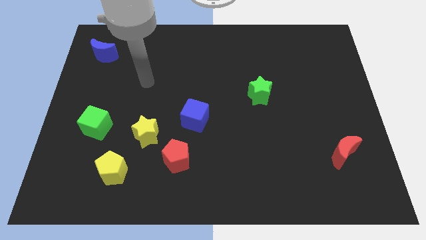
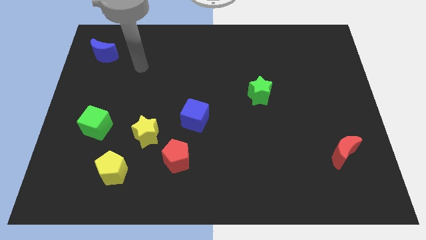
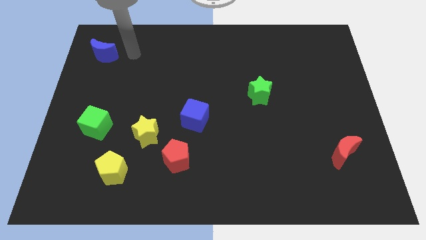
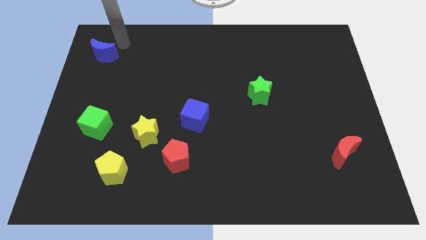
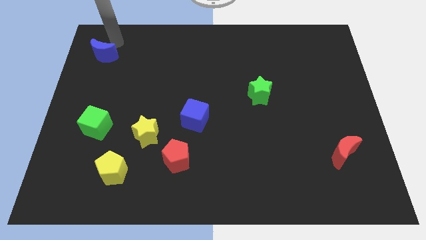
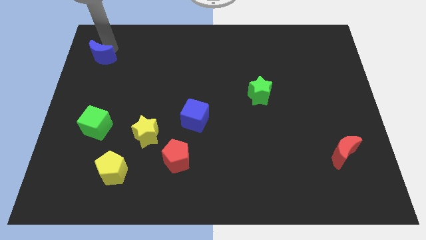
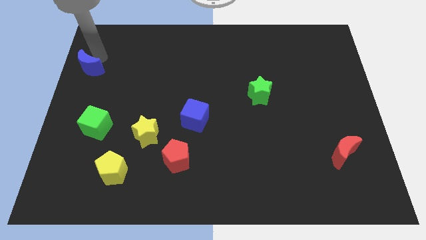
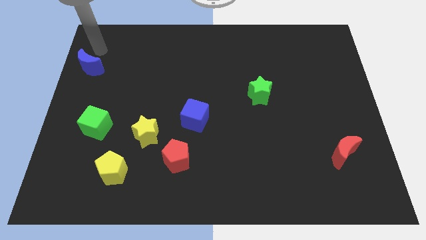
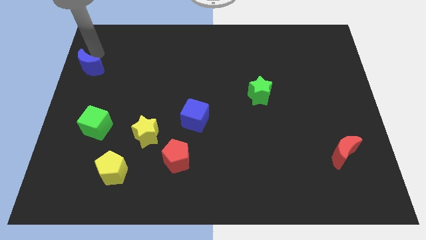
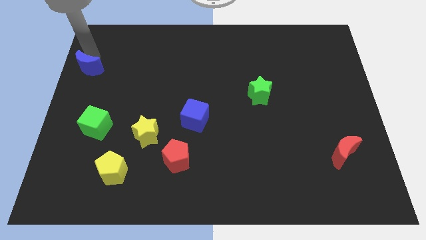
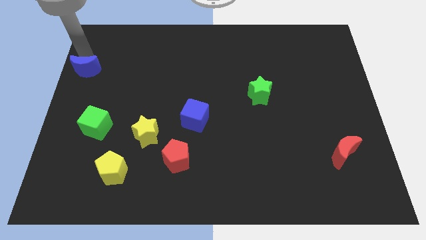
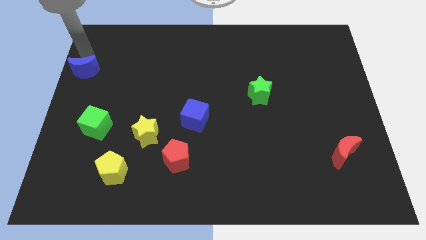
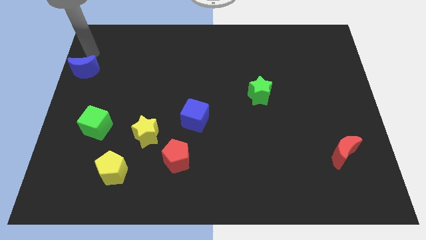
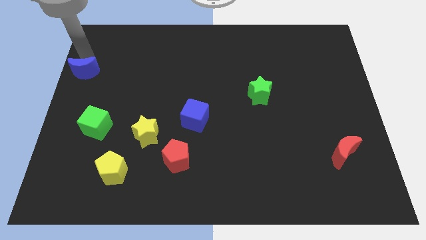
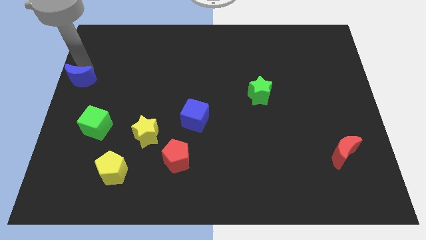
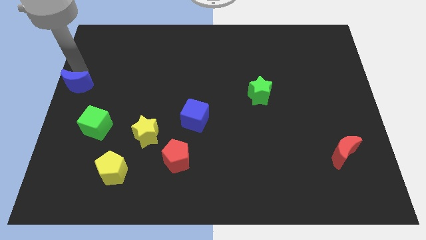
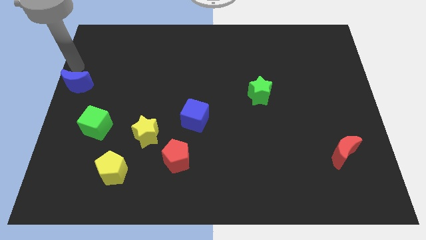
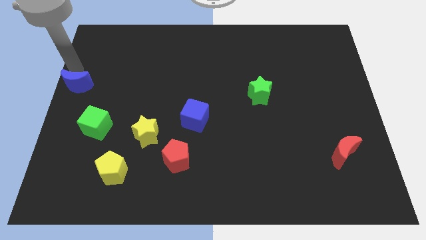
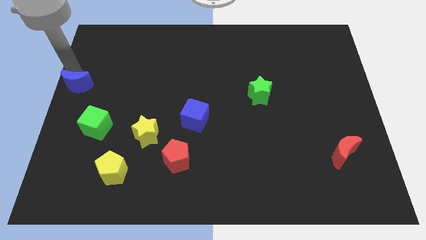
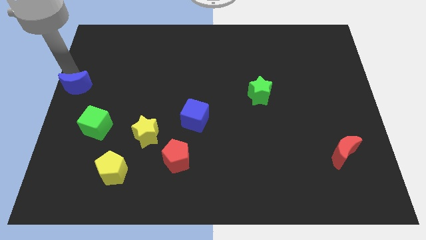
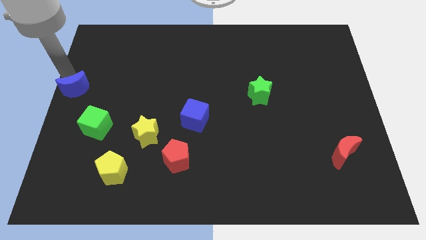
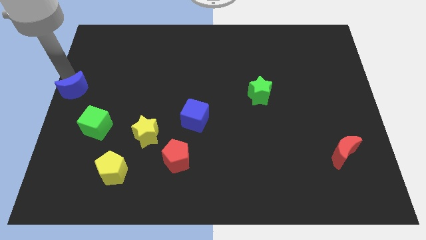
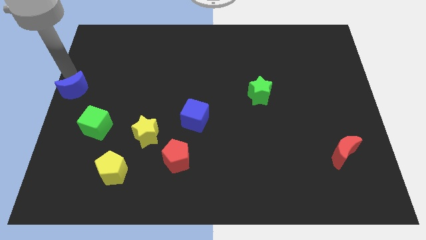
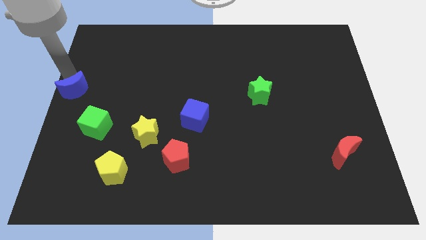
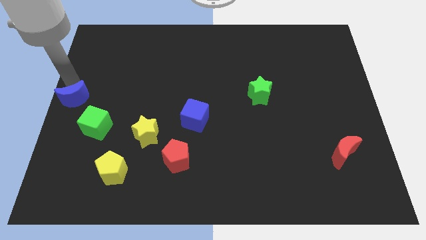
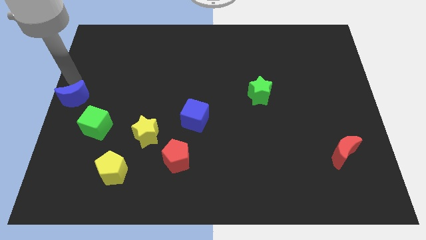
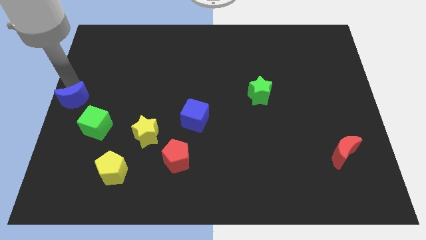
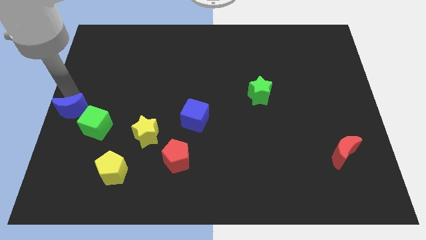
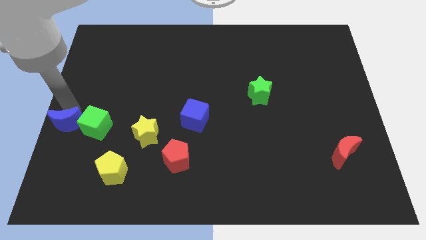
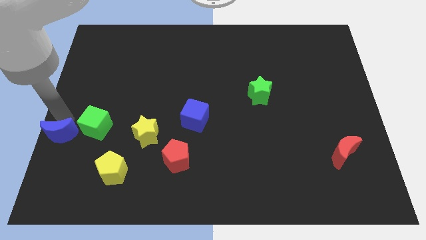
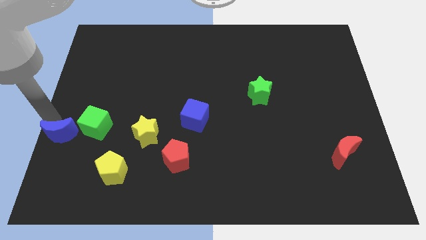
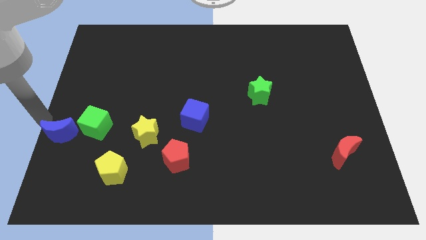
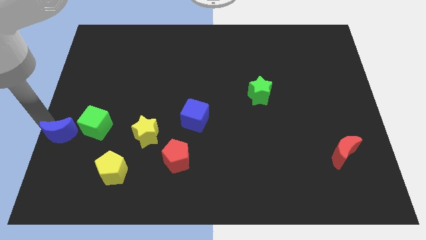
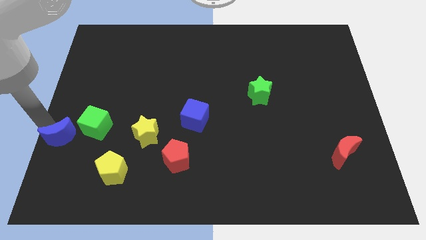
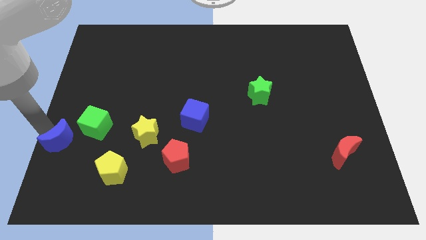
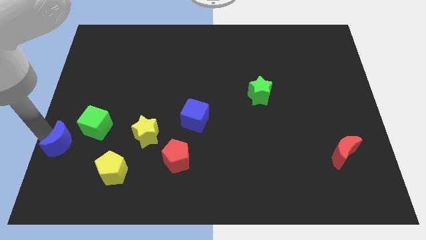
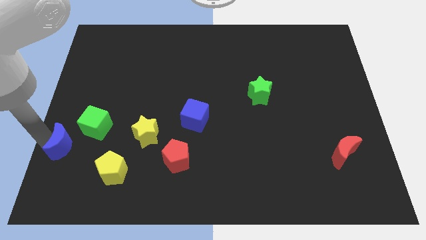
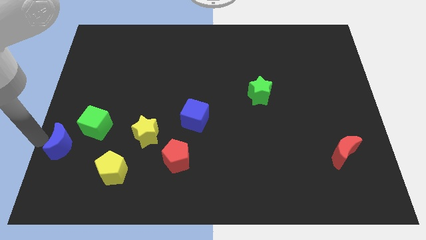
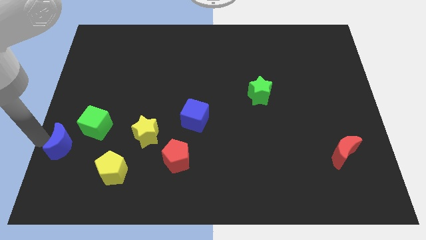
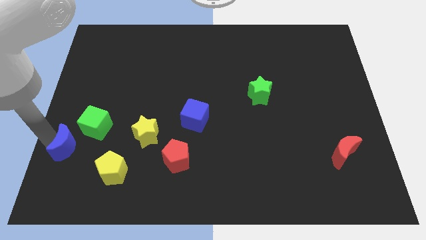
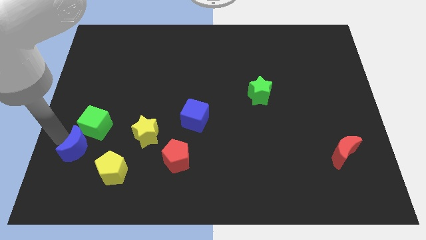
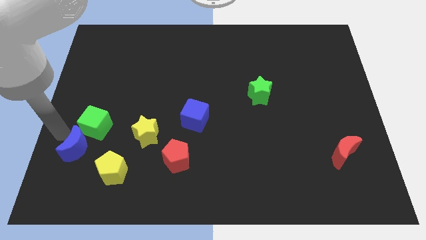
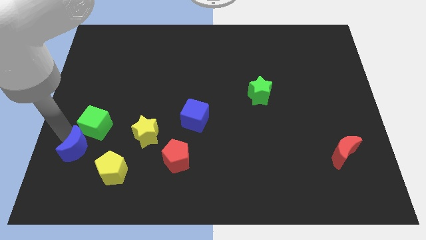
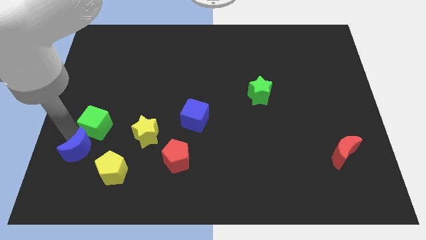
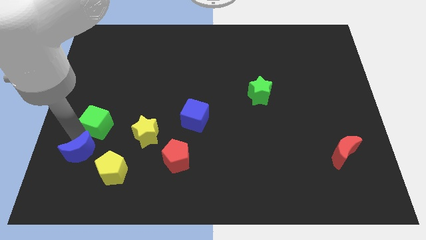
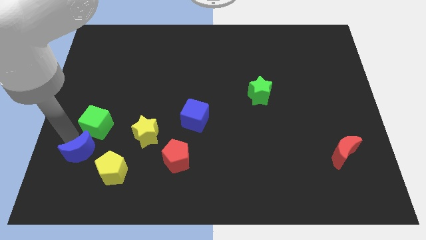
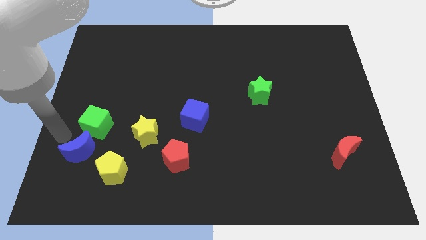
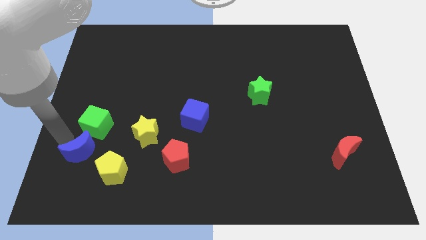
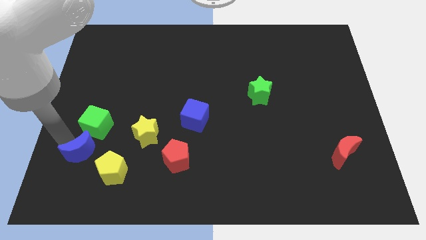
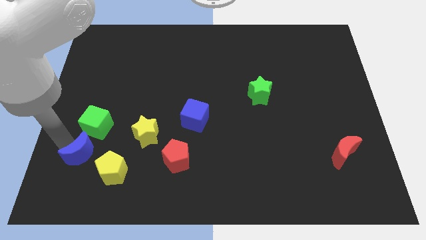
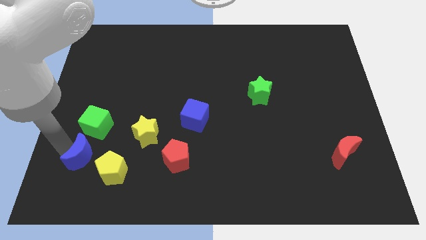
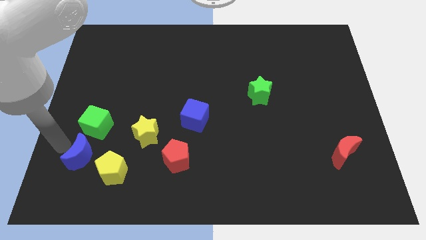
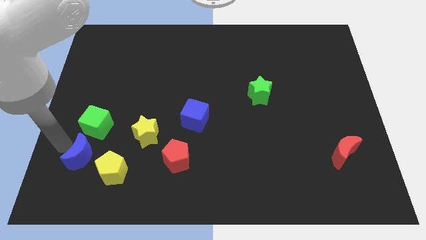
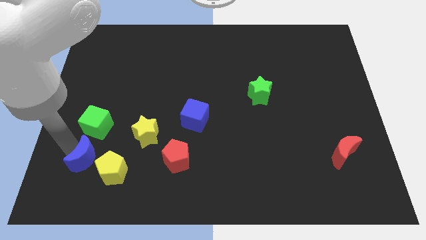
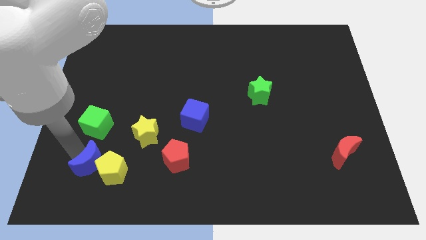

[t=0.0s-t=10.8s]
put the blue moon next to the yellow pentagon
